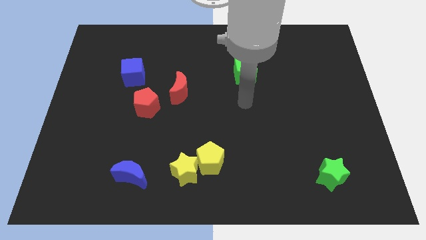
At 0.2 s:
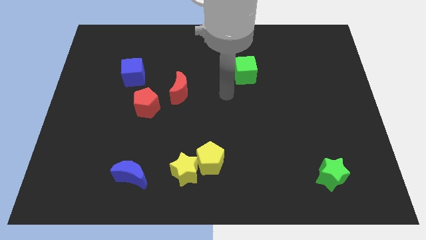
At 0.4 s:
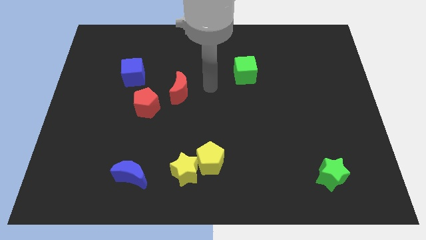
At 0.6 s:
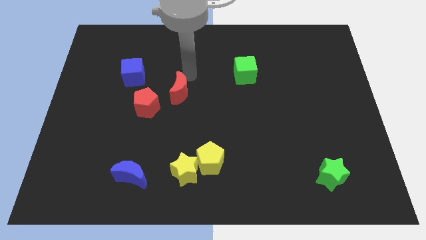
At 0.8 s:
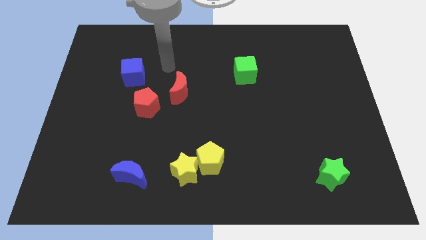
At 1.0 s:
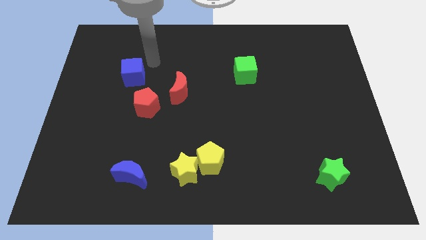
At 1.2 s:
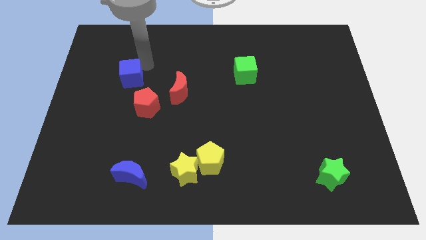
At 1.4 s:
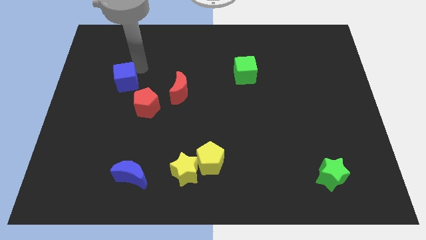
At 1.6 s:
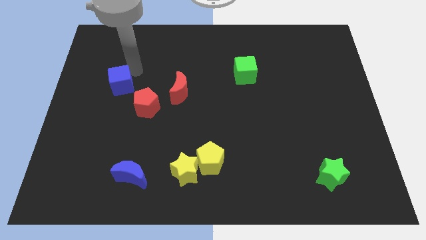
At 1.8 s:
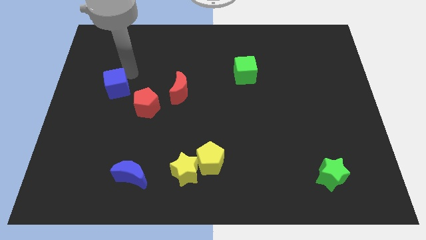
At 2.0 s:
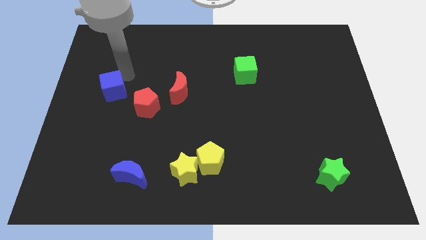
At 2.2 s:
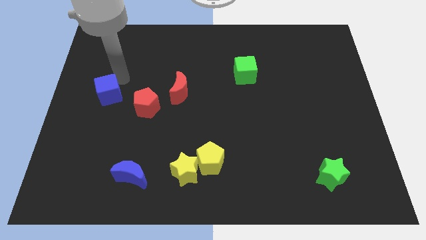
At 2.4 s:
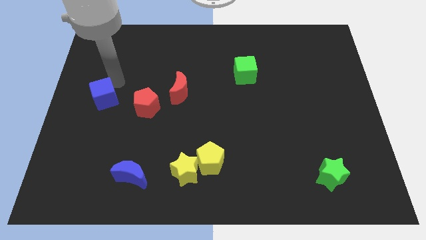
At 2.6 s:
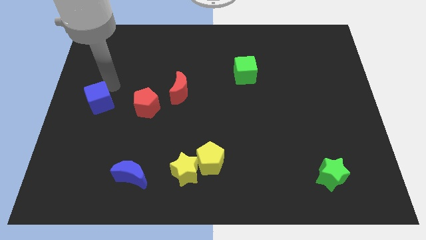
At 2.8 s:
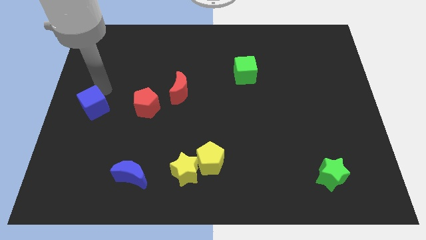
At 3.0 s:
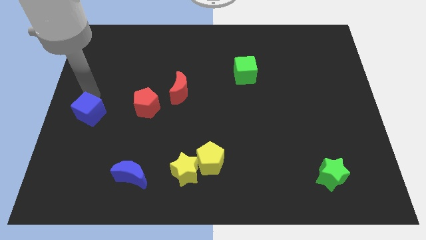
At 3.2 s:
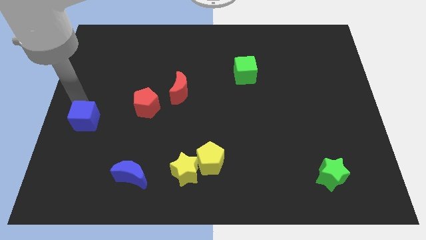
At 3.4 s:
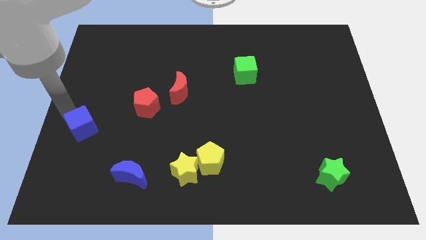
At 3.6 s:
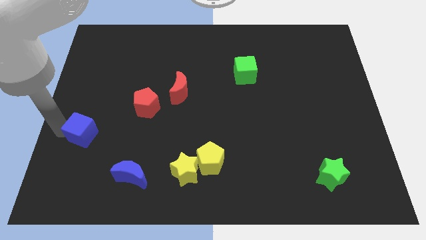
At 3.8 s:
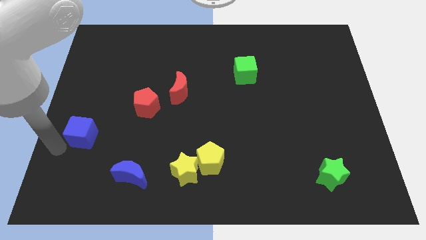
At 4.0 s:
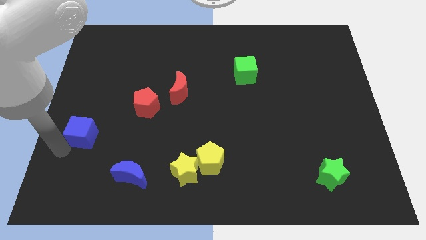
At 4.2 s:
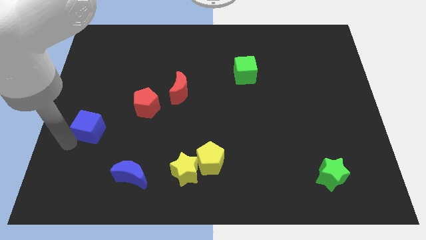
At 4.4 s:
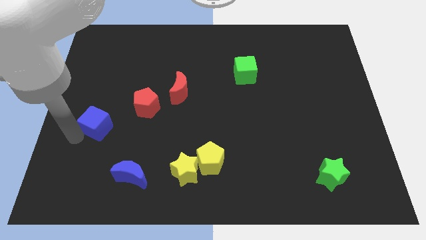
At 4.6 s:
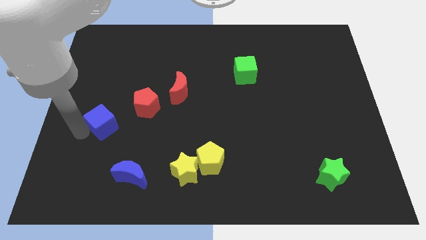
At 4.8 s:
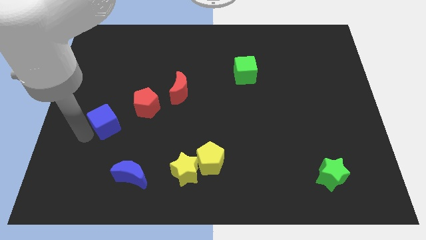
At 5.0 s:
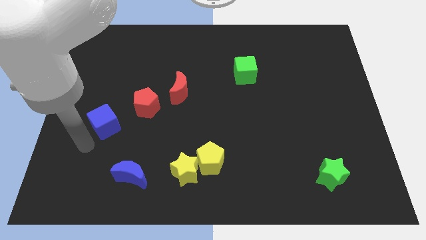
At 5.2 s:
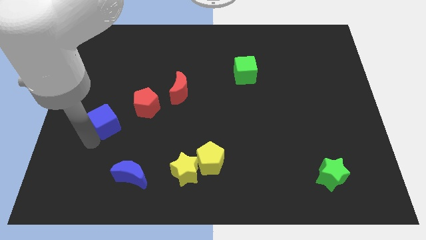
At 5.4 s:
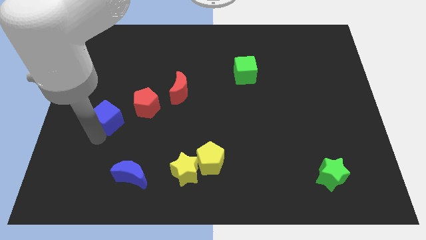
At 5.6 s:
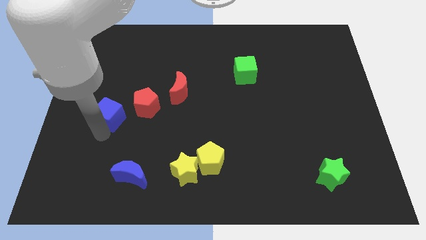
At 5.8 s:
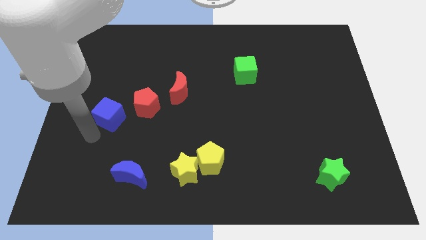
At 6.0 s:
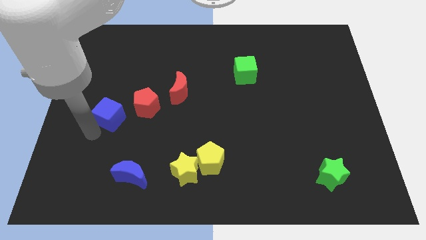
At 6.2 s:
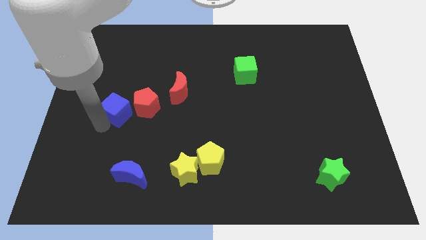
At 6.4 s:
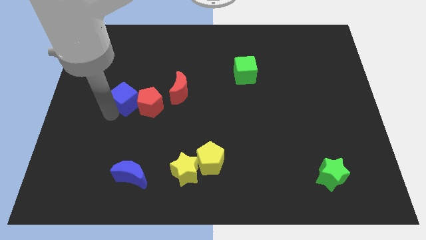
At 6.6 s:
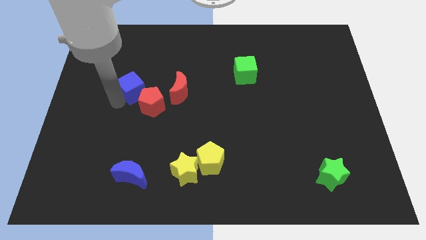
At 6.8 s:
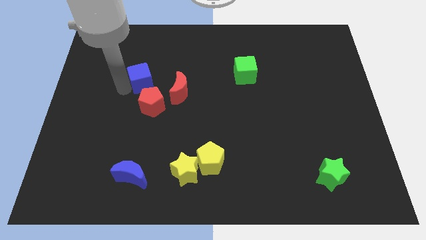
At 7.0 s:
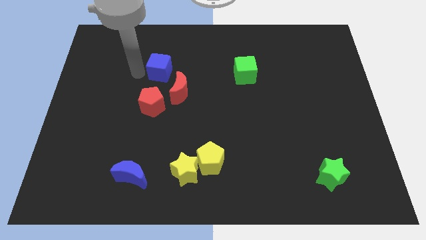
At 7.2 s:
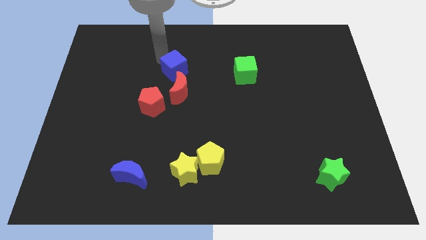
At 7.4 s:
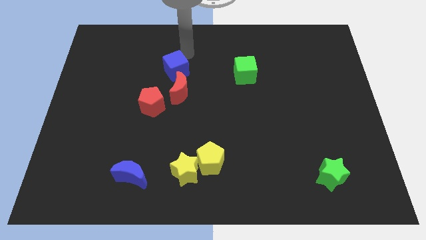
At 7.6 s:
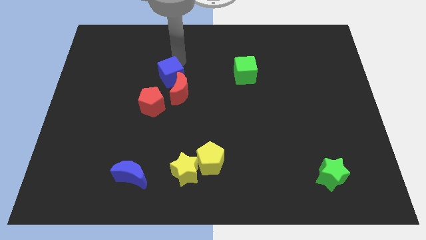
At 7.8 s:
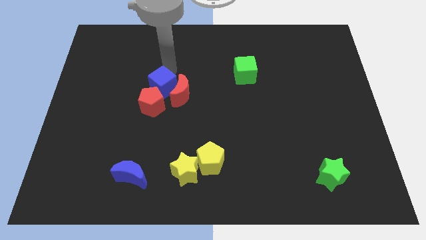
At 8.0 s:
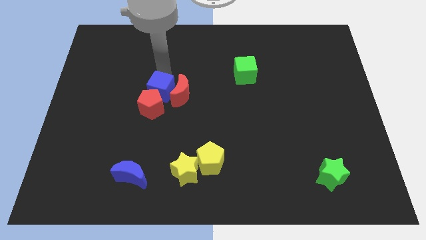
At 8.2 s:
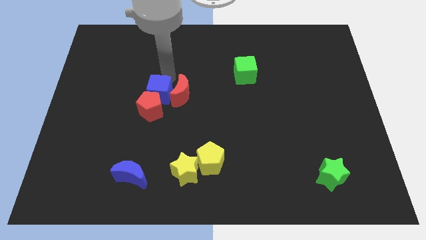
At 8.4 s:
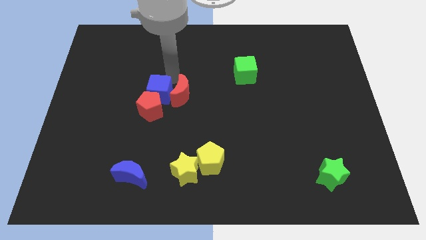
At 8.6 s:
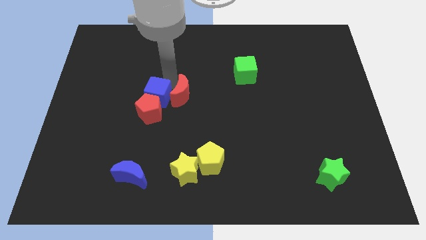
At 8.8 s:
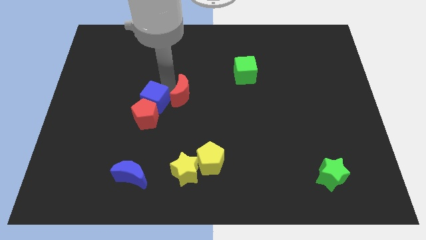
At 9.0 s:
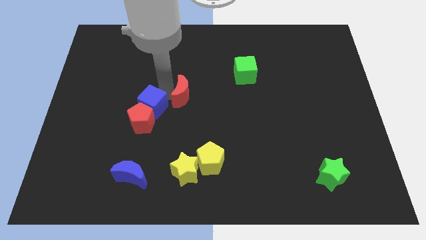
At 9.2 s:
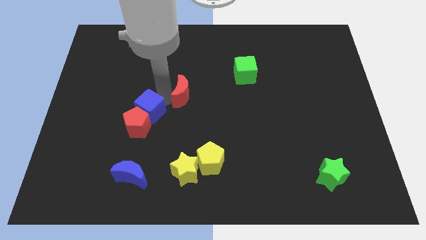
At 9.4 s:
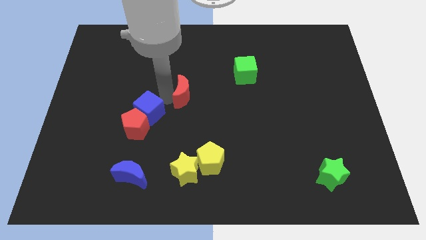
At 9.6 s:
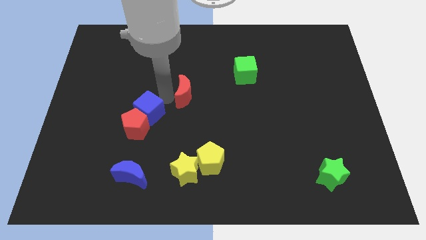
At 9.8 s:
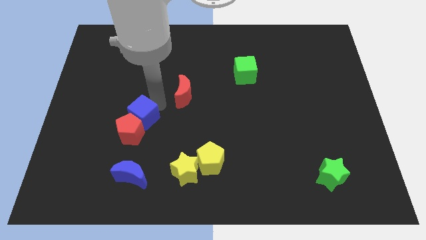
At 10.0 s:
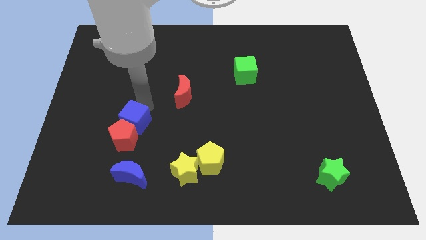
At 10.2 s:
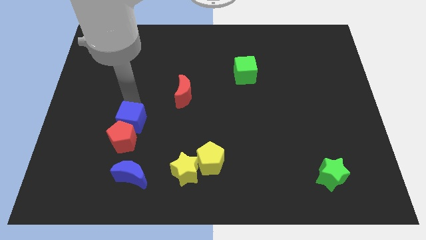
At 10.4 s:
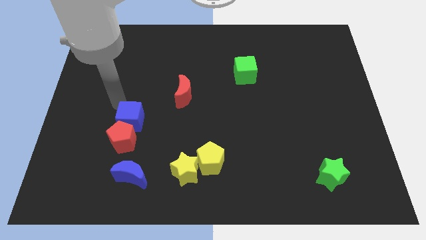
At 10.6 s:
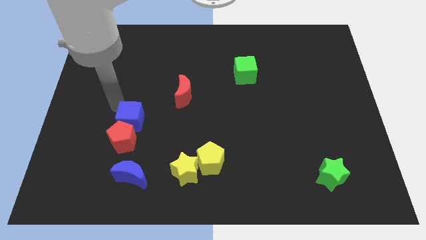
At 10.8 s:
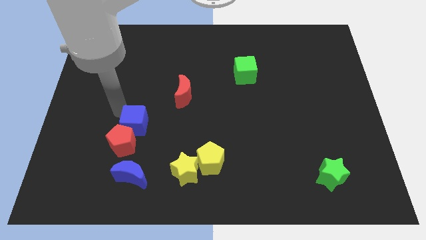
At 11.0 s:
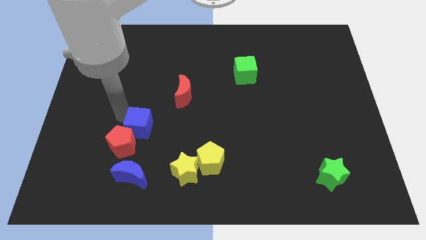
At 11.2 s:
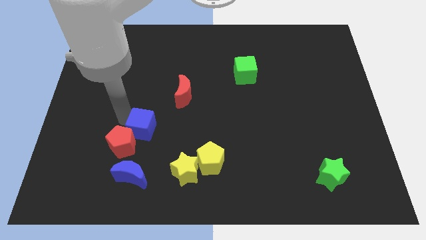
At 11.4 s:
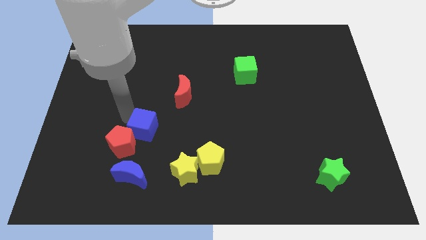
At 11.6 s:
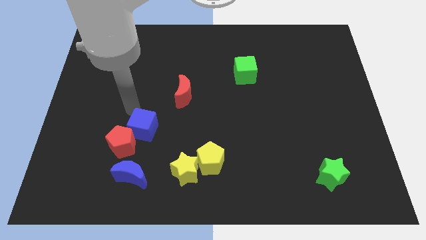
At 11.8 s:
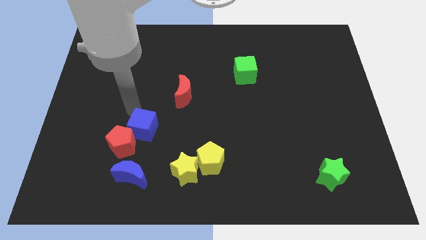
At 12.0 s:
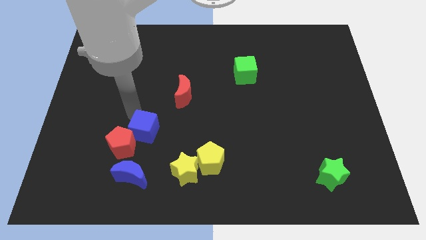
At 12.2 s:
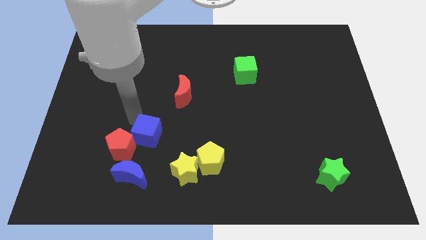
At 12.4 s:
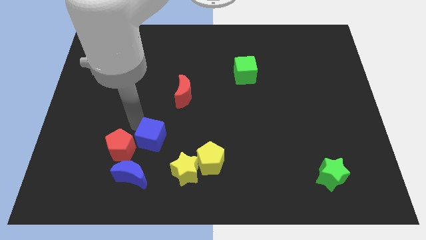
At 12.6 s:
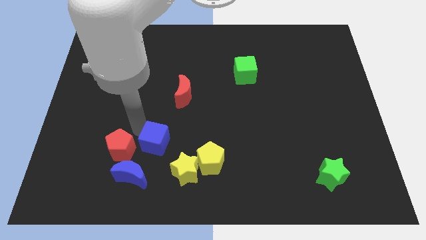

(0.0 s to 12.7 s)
push the blue cube to the left of the yellow pentagon
